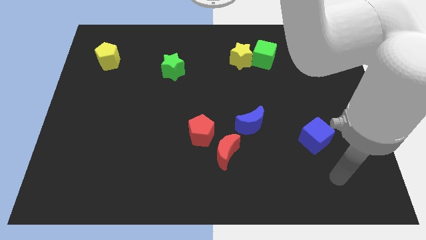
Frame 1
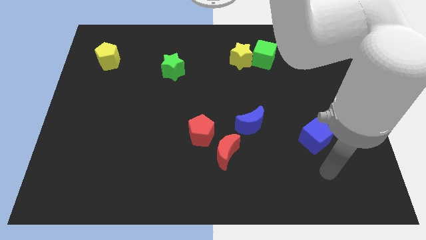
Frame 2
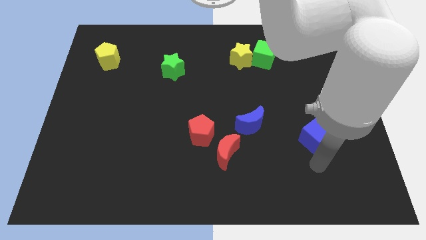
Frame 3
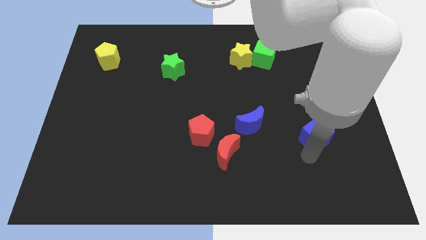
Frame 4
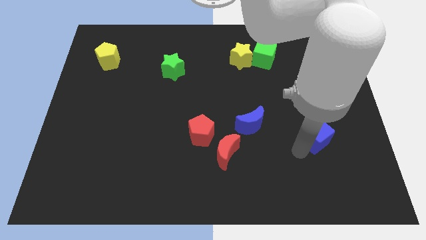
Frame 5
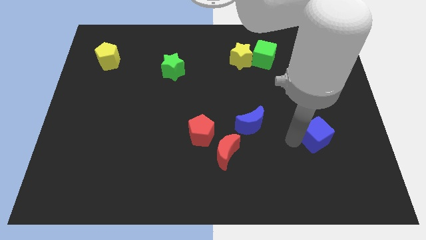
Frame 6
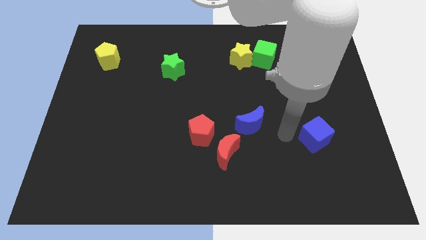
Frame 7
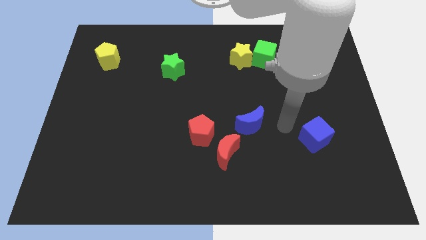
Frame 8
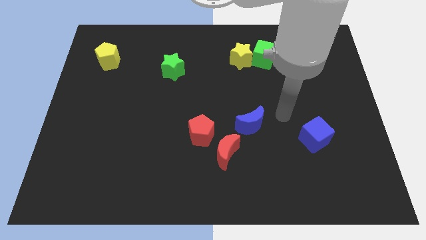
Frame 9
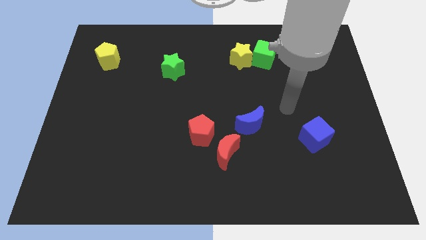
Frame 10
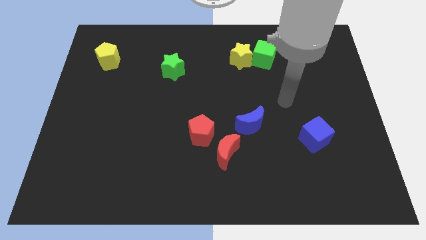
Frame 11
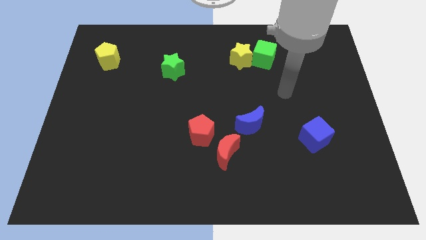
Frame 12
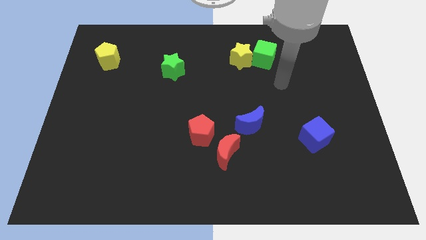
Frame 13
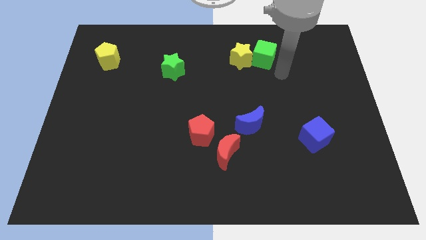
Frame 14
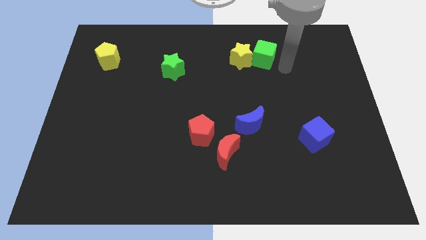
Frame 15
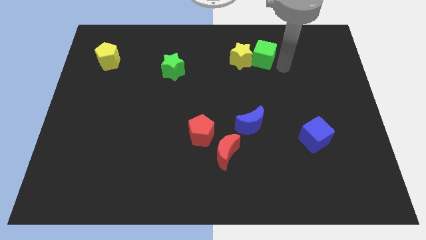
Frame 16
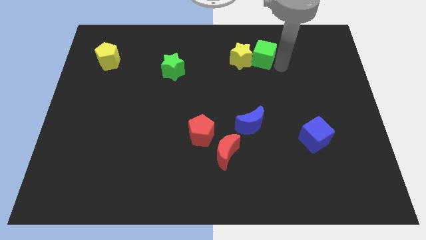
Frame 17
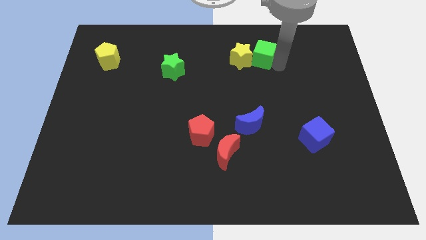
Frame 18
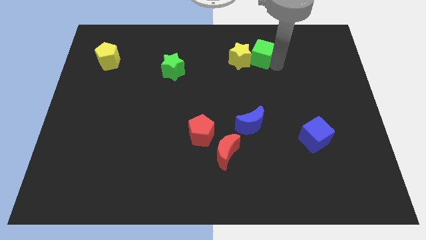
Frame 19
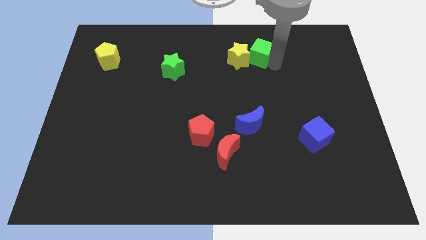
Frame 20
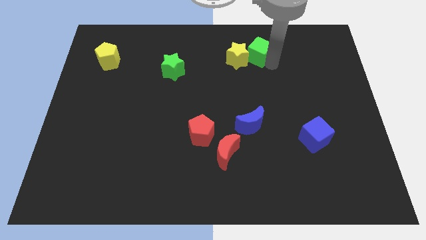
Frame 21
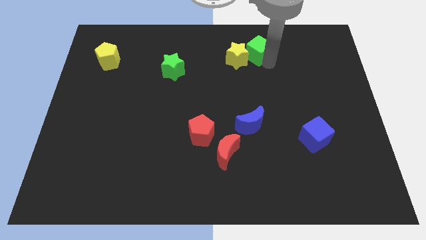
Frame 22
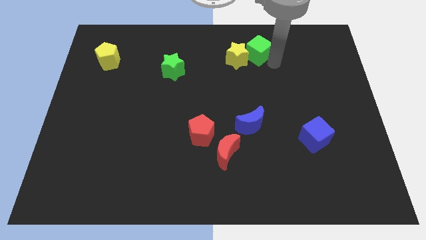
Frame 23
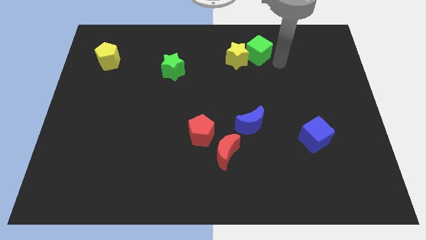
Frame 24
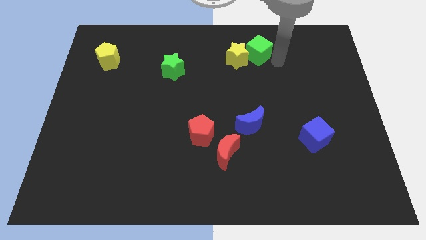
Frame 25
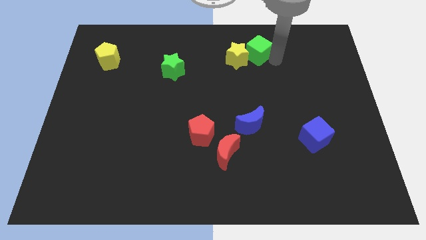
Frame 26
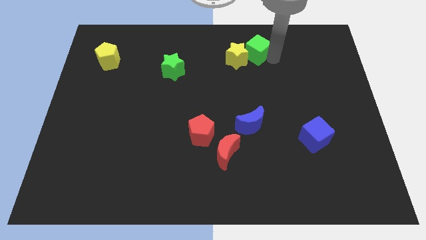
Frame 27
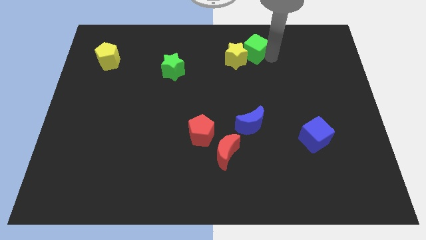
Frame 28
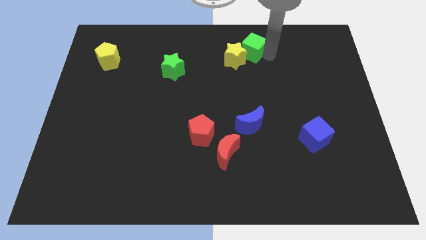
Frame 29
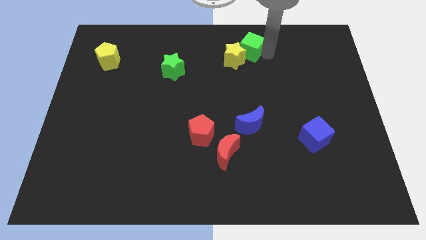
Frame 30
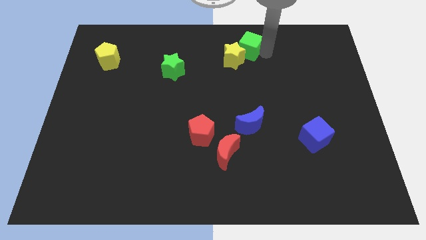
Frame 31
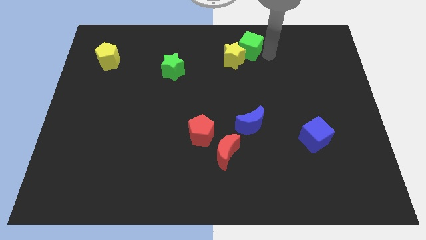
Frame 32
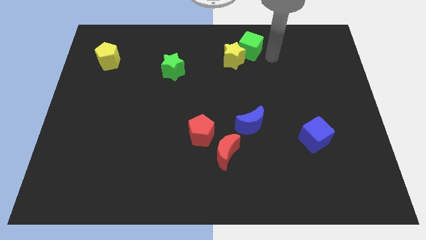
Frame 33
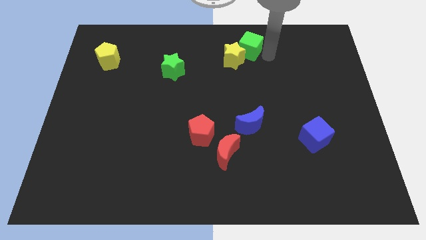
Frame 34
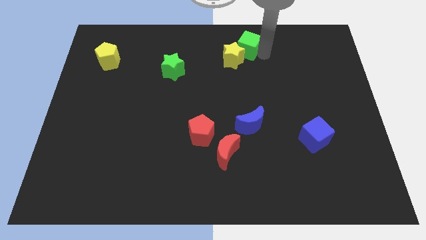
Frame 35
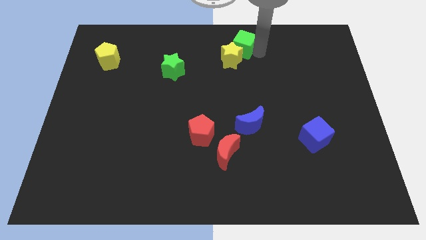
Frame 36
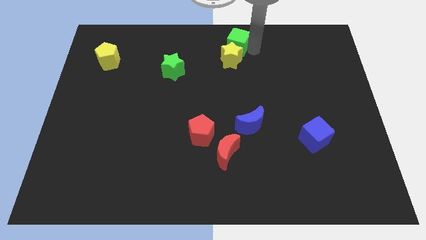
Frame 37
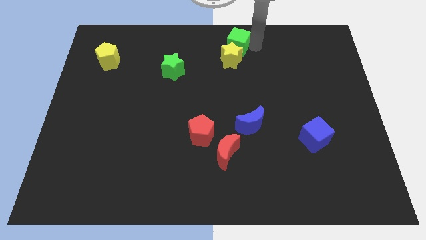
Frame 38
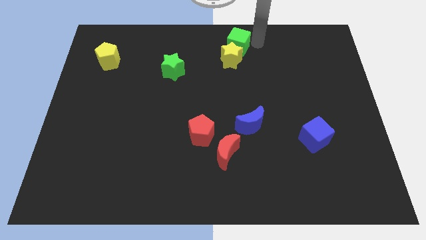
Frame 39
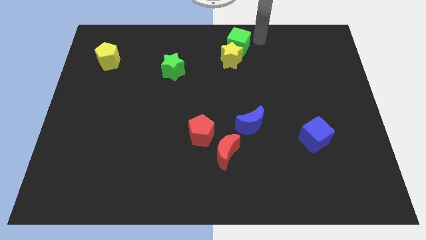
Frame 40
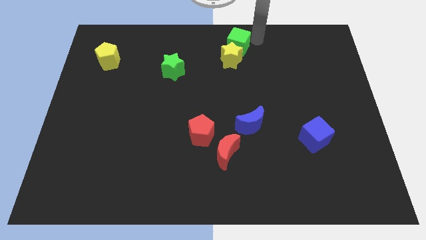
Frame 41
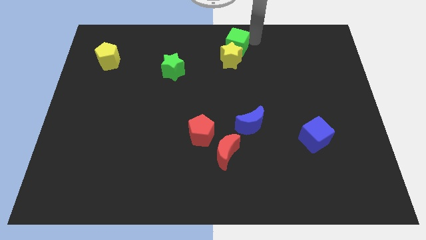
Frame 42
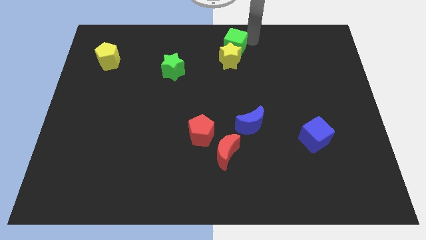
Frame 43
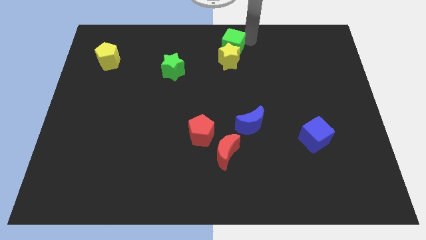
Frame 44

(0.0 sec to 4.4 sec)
move the green cube to the left a little

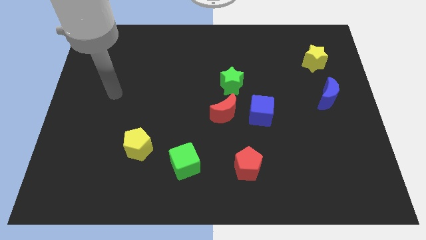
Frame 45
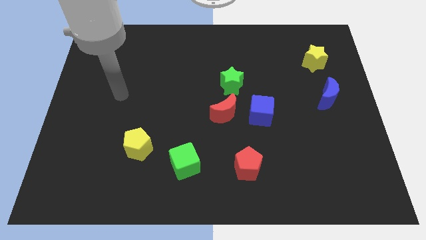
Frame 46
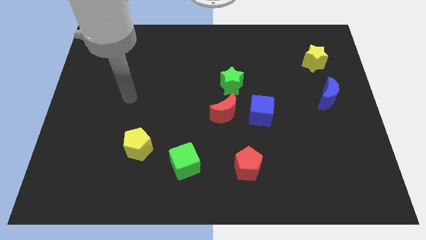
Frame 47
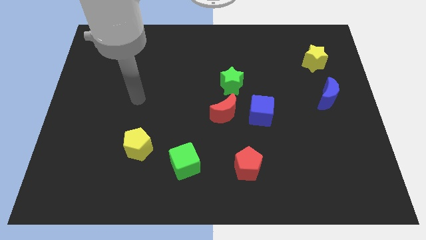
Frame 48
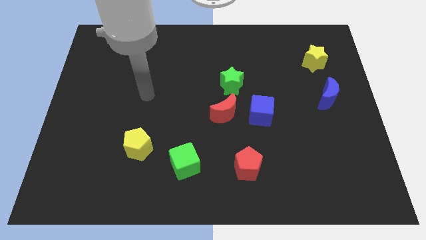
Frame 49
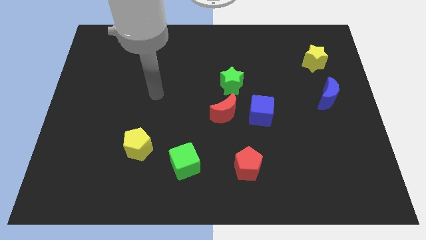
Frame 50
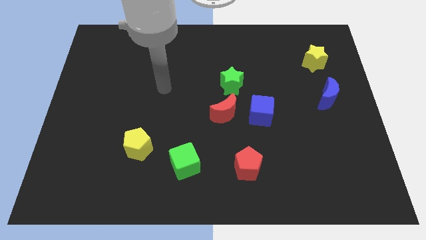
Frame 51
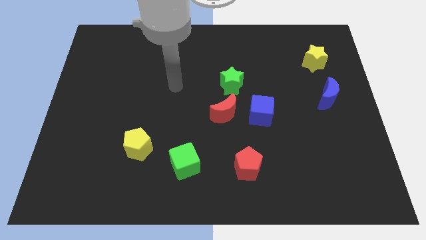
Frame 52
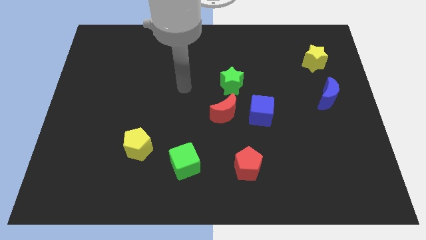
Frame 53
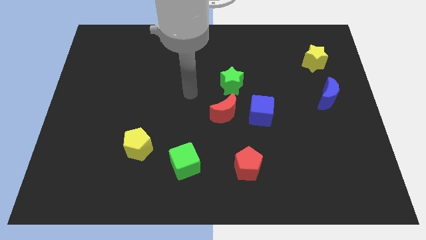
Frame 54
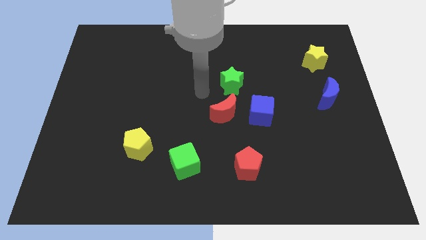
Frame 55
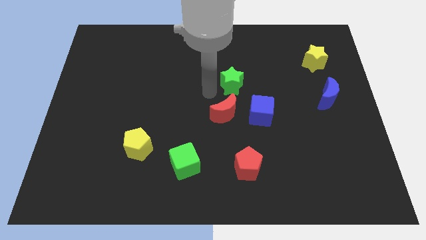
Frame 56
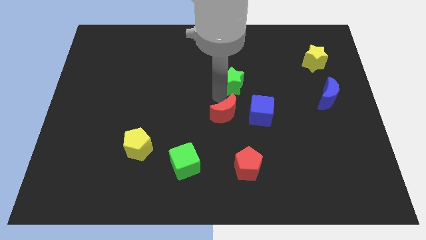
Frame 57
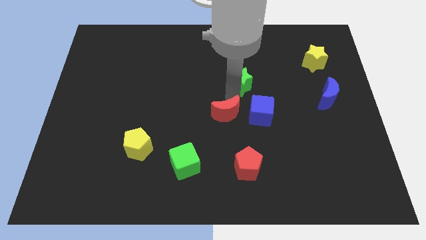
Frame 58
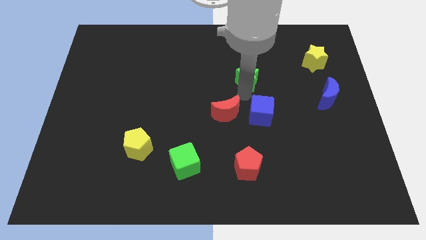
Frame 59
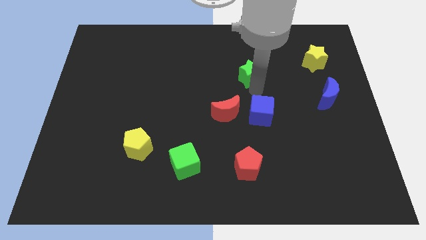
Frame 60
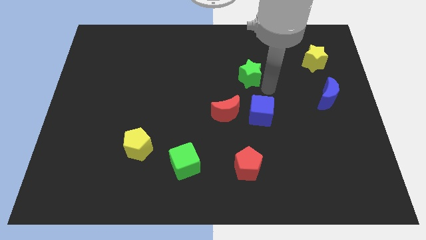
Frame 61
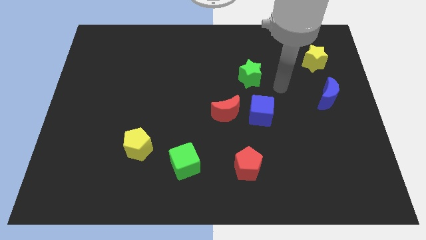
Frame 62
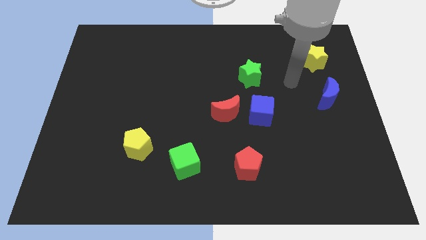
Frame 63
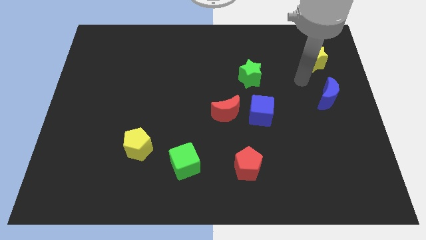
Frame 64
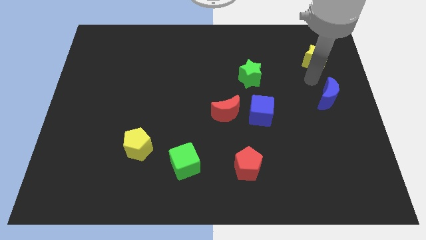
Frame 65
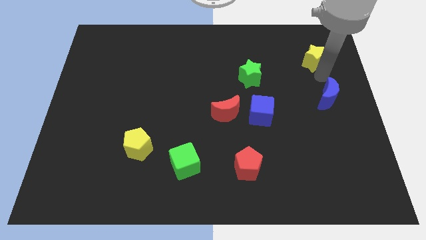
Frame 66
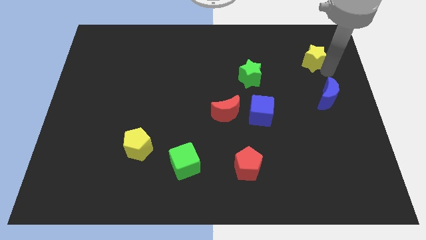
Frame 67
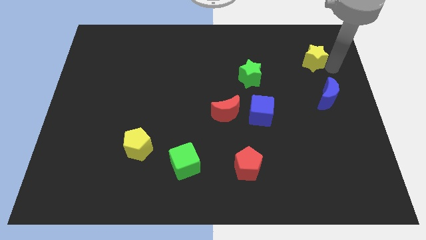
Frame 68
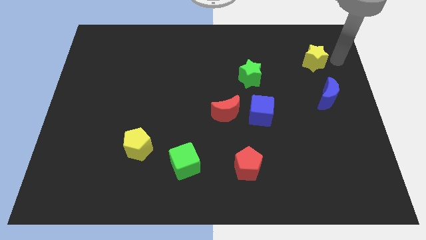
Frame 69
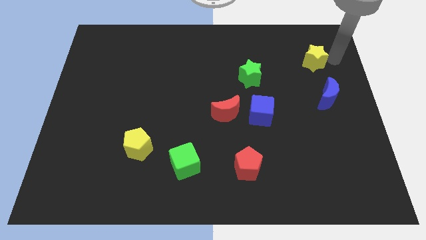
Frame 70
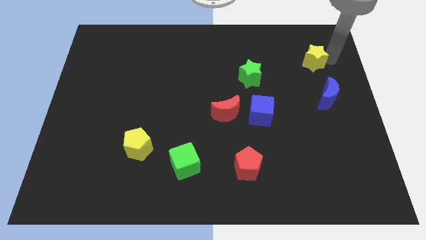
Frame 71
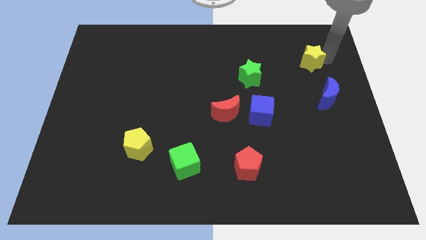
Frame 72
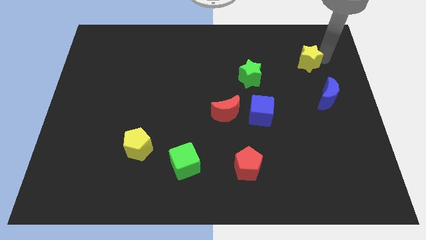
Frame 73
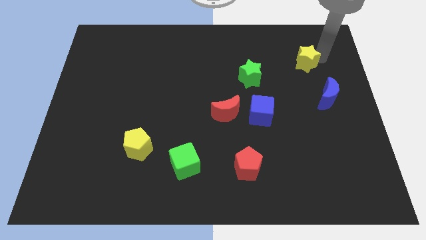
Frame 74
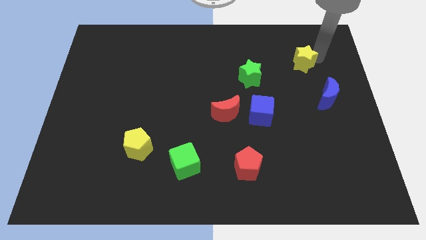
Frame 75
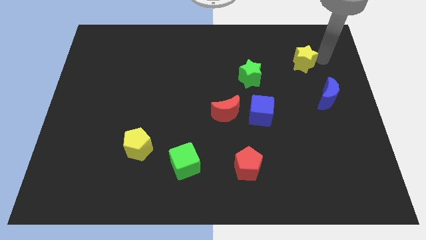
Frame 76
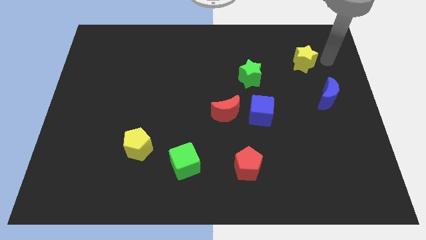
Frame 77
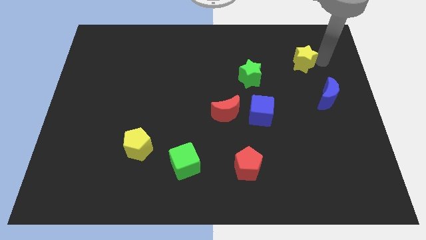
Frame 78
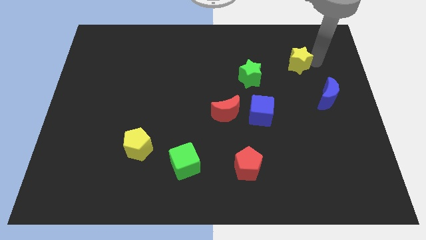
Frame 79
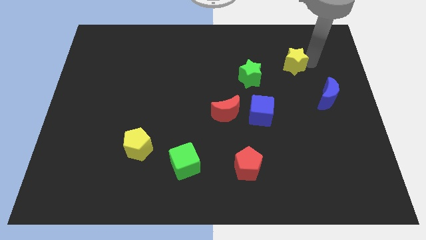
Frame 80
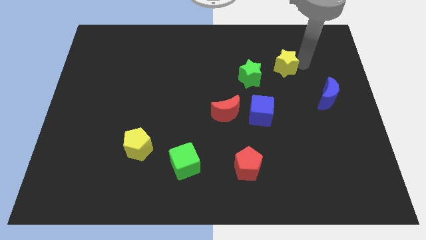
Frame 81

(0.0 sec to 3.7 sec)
slightly push the yellow star to the left

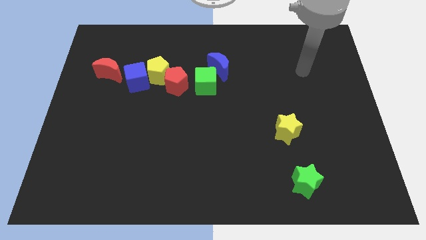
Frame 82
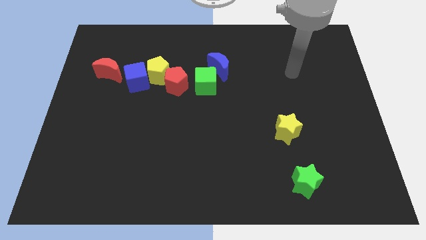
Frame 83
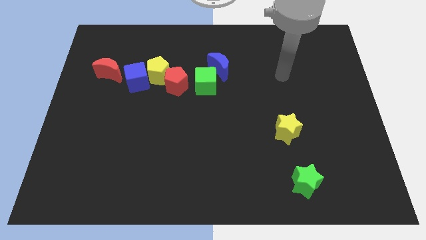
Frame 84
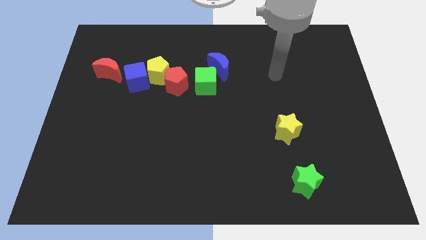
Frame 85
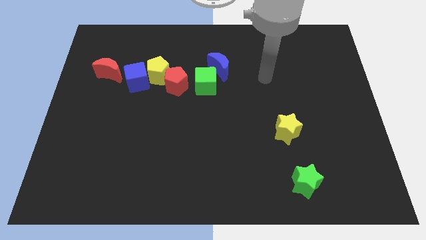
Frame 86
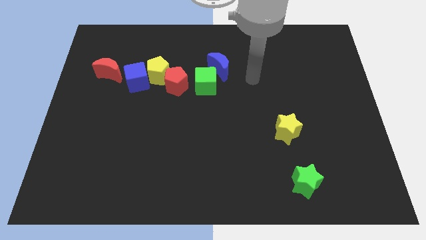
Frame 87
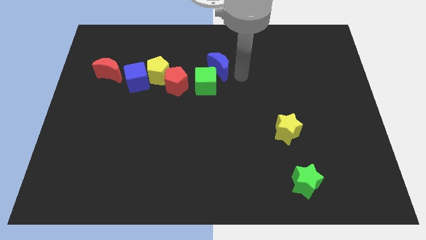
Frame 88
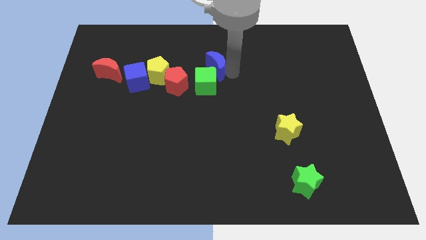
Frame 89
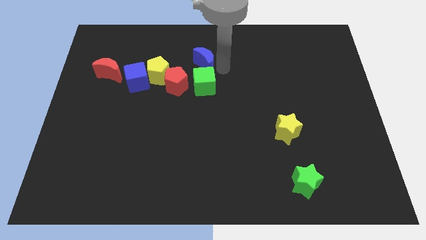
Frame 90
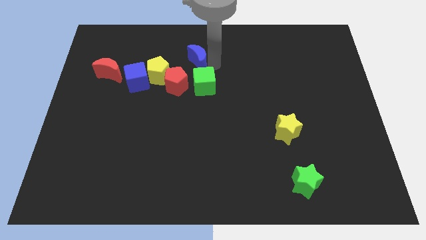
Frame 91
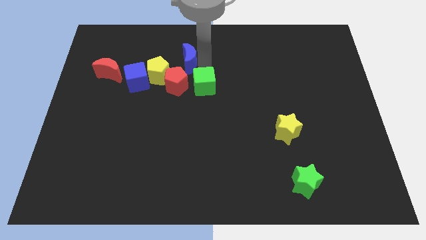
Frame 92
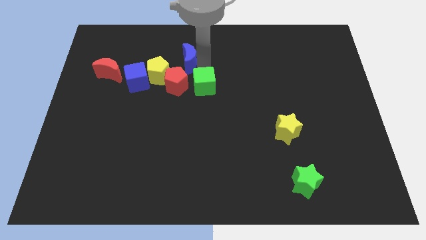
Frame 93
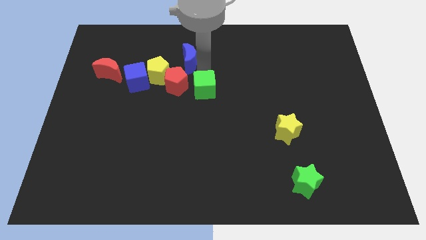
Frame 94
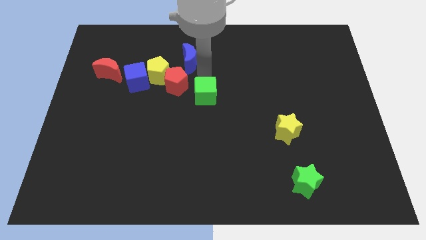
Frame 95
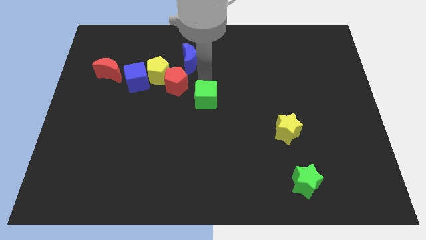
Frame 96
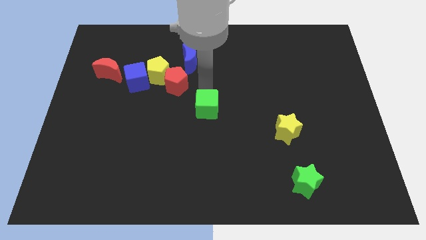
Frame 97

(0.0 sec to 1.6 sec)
move the green cube down somewhat
